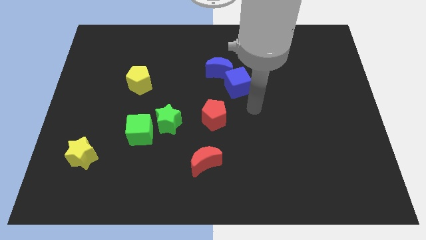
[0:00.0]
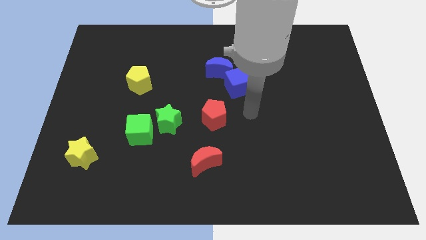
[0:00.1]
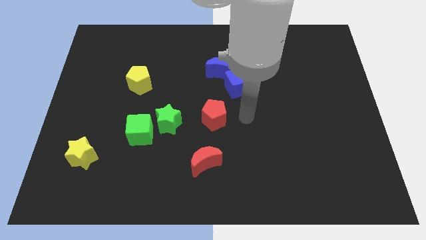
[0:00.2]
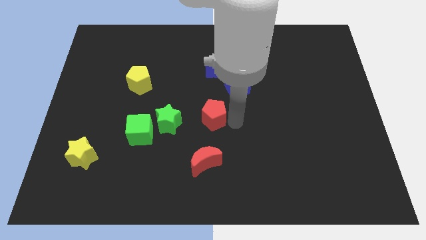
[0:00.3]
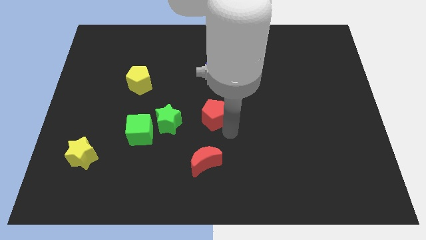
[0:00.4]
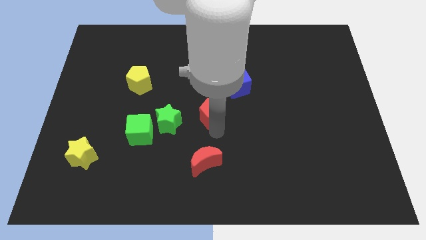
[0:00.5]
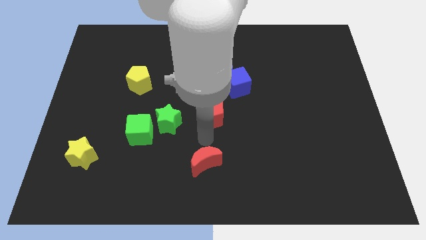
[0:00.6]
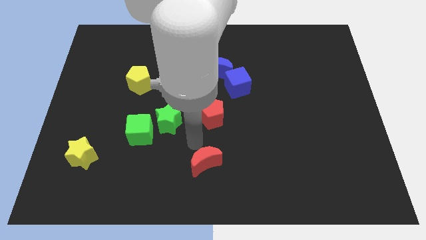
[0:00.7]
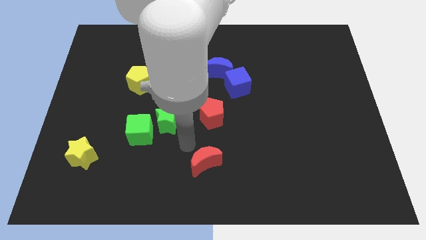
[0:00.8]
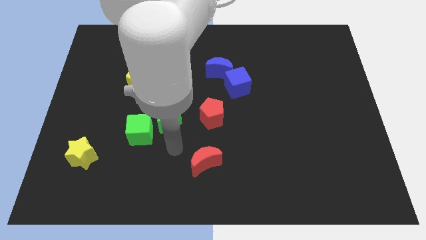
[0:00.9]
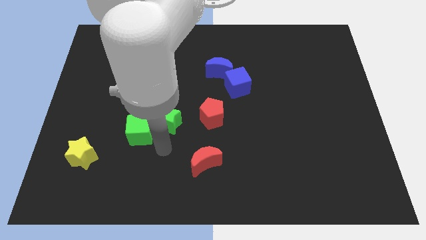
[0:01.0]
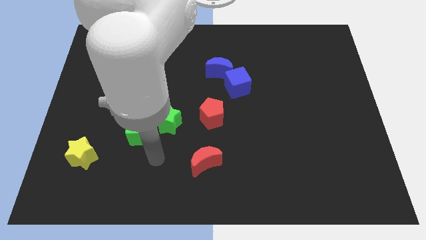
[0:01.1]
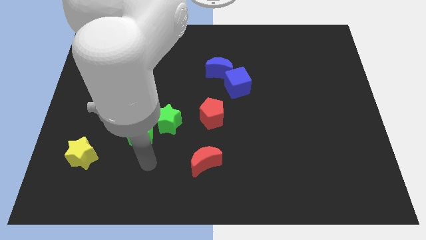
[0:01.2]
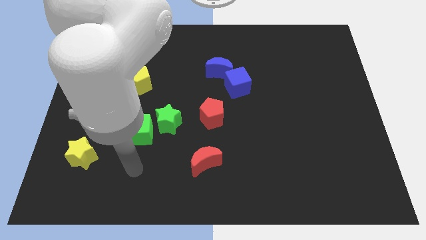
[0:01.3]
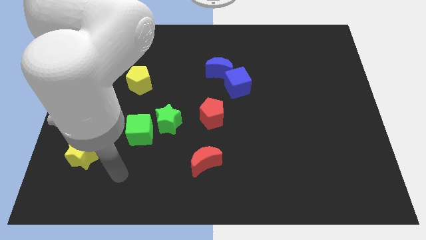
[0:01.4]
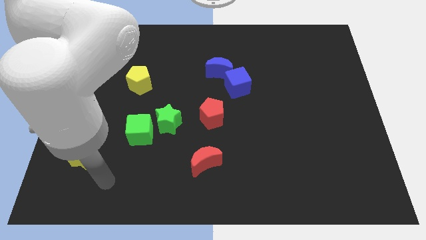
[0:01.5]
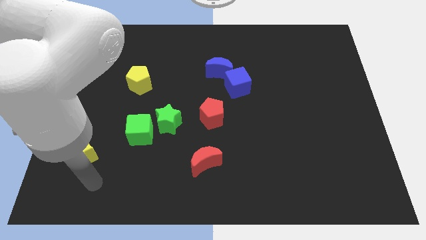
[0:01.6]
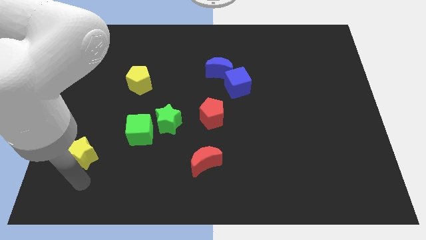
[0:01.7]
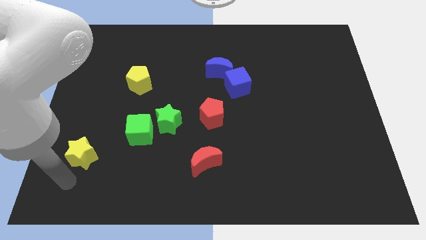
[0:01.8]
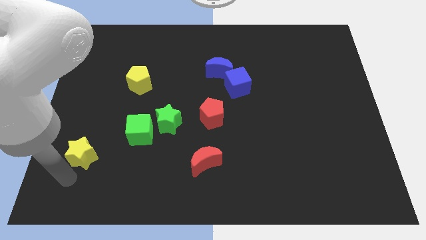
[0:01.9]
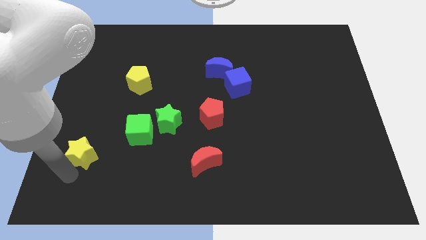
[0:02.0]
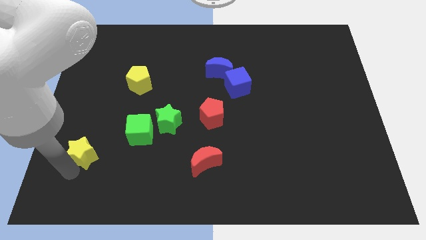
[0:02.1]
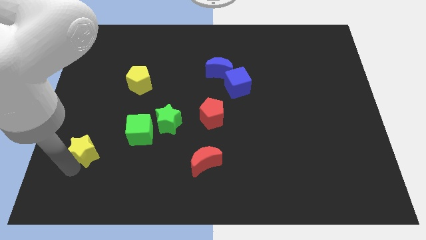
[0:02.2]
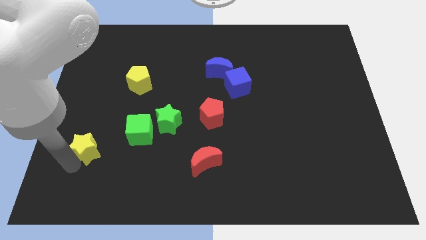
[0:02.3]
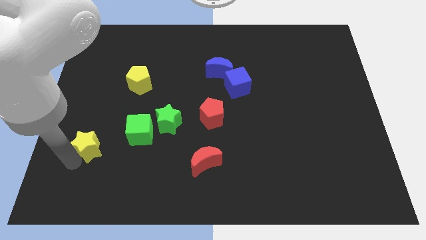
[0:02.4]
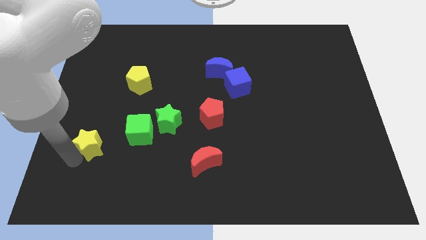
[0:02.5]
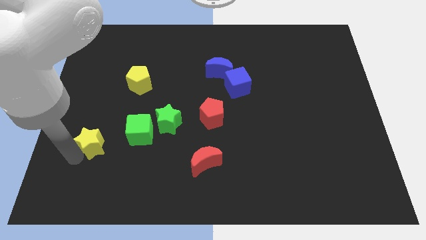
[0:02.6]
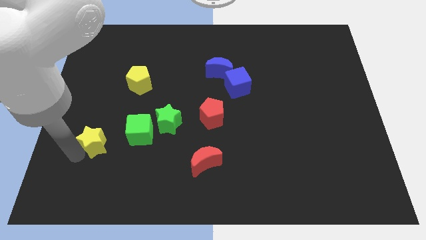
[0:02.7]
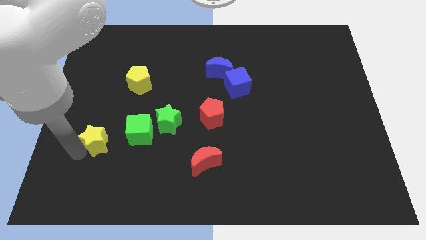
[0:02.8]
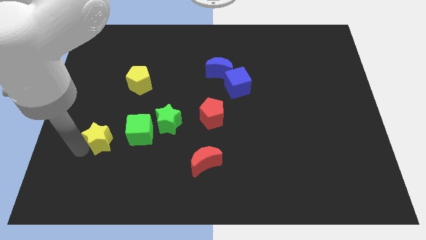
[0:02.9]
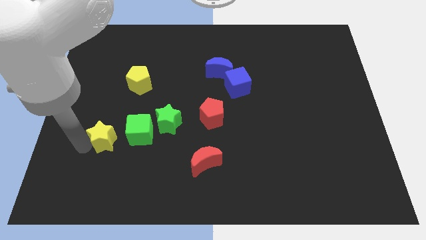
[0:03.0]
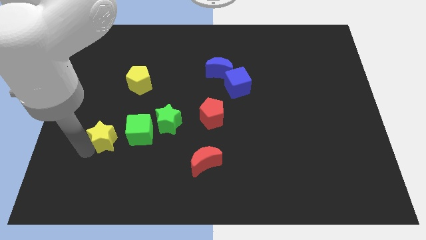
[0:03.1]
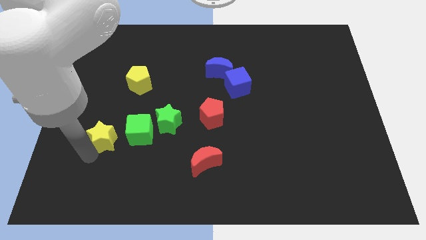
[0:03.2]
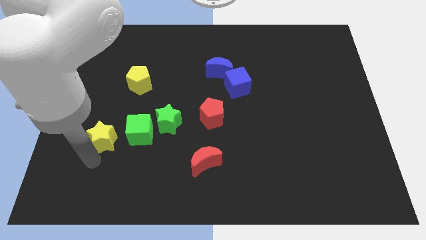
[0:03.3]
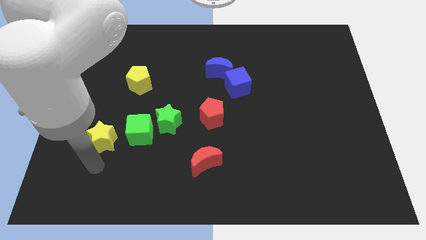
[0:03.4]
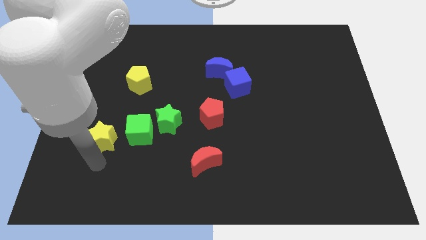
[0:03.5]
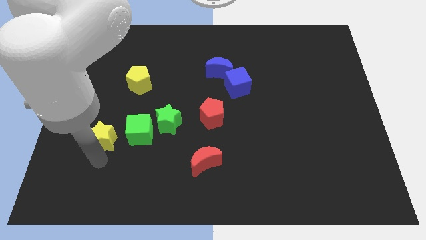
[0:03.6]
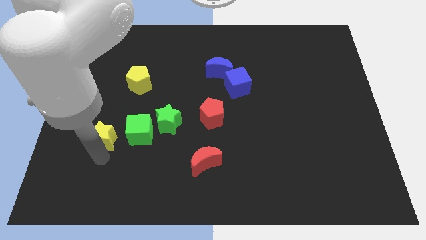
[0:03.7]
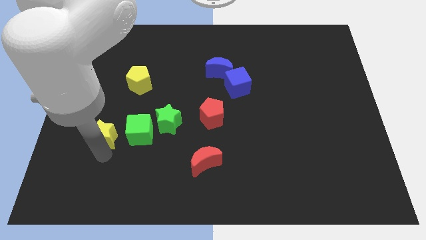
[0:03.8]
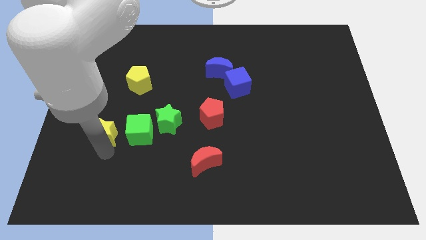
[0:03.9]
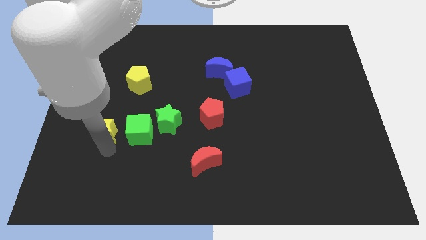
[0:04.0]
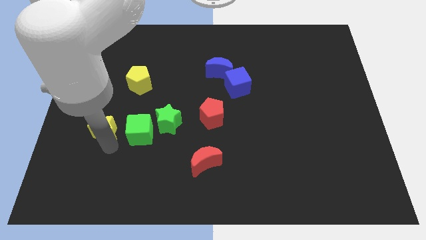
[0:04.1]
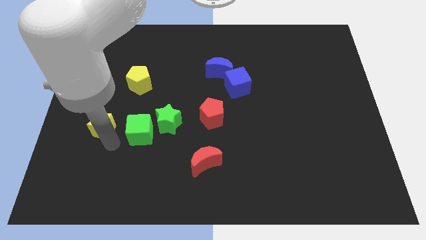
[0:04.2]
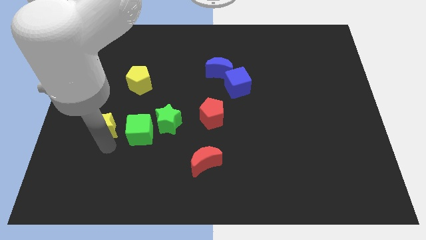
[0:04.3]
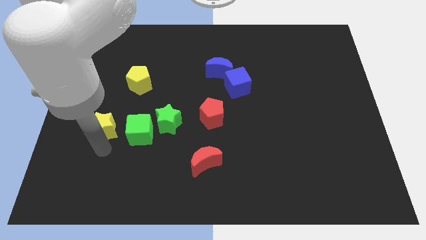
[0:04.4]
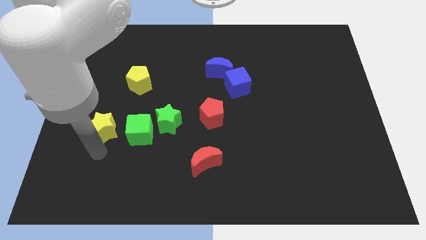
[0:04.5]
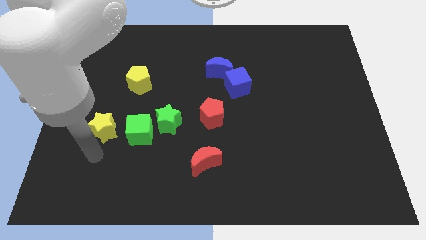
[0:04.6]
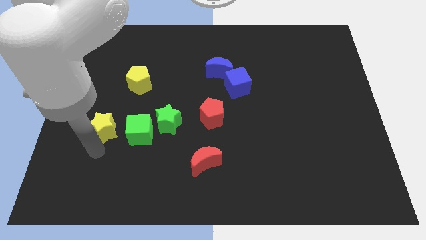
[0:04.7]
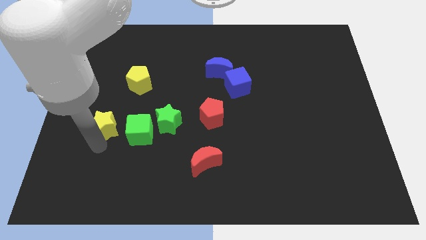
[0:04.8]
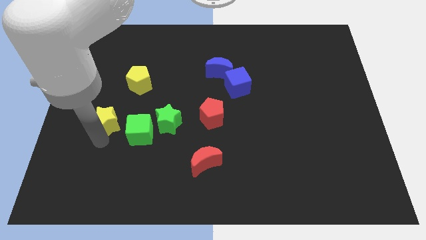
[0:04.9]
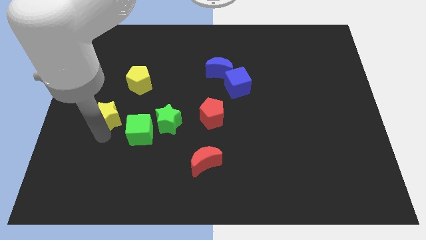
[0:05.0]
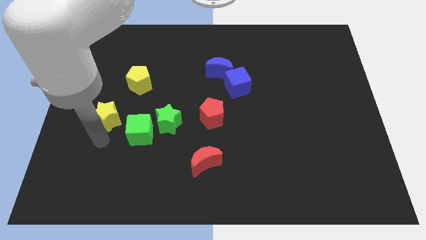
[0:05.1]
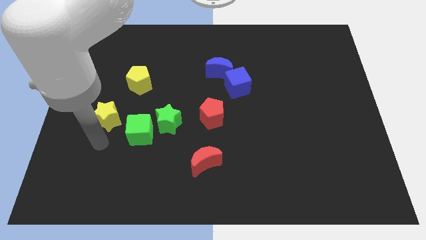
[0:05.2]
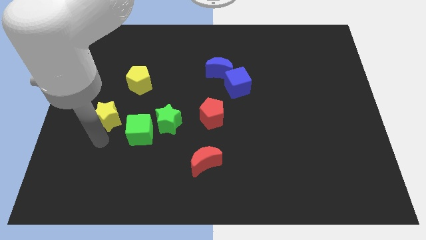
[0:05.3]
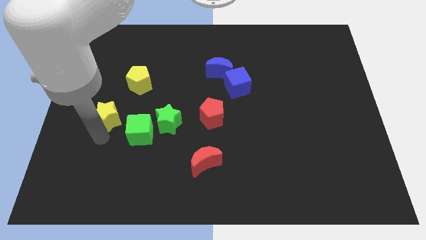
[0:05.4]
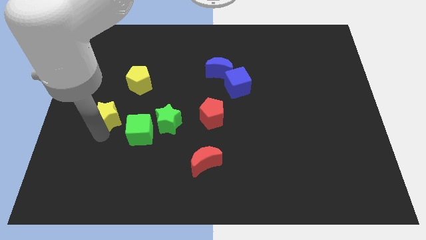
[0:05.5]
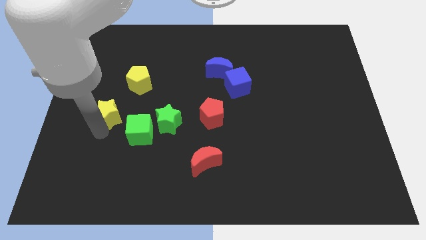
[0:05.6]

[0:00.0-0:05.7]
move the yellow star to the bottom left of the yellow pentagon

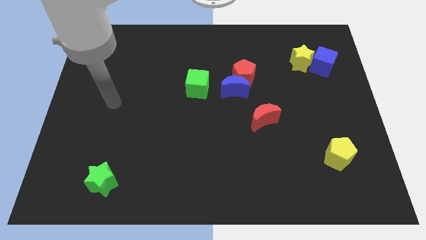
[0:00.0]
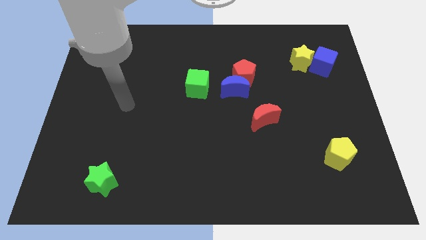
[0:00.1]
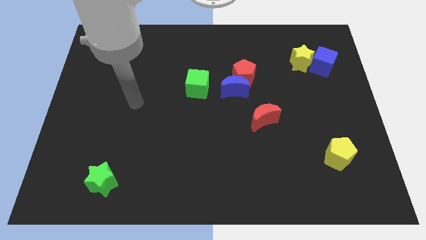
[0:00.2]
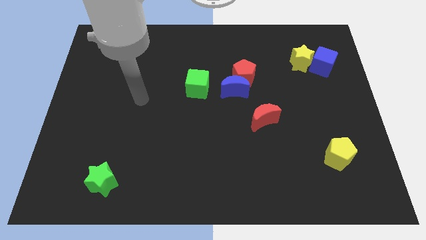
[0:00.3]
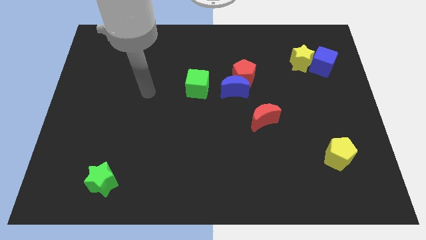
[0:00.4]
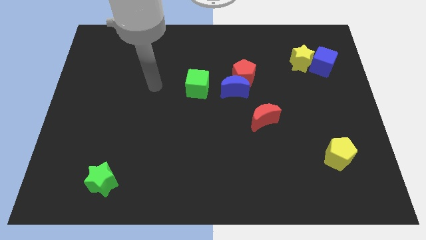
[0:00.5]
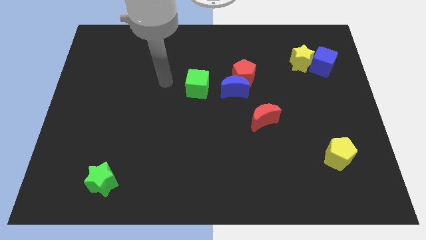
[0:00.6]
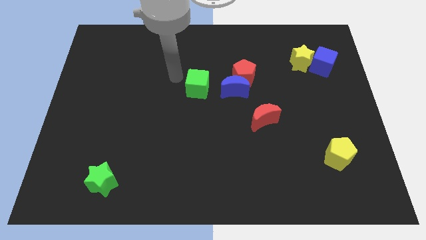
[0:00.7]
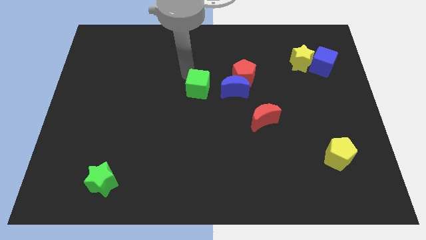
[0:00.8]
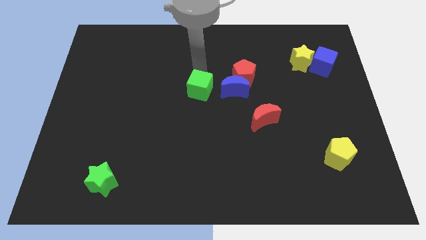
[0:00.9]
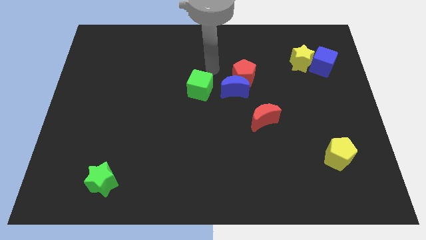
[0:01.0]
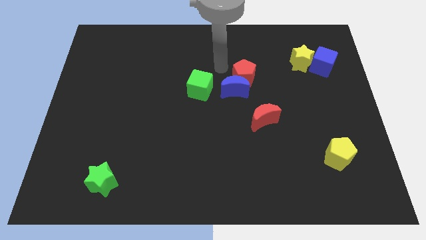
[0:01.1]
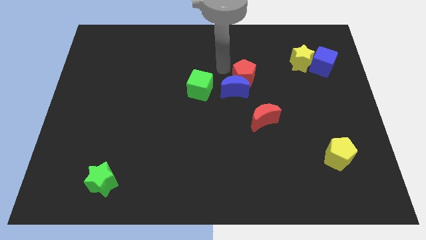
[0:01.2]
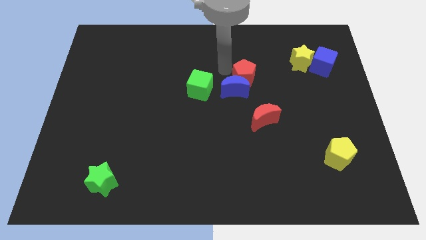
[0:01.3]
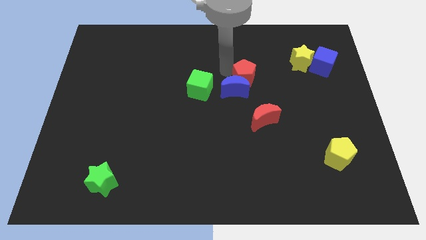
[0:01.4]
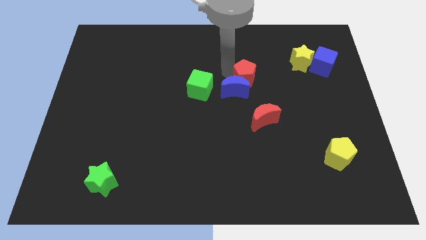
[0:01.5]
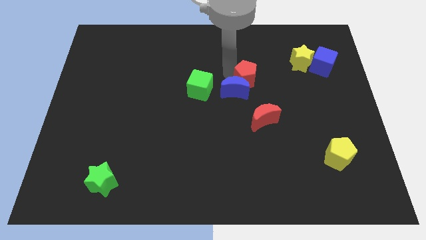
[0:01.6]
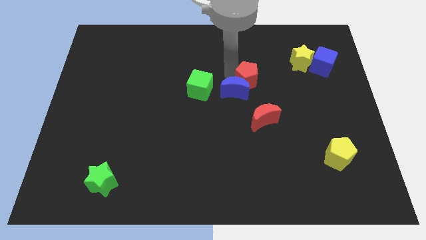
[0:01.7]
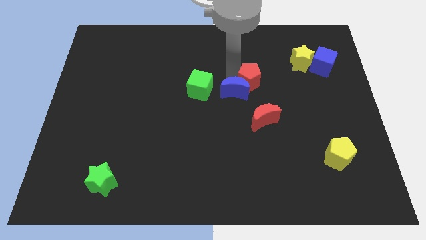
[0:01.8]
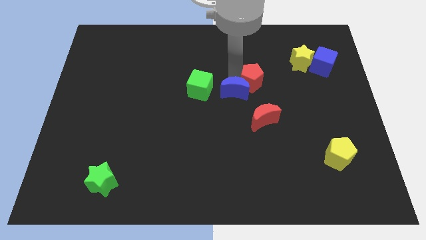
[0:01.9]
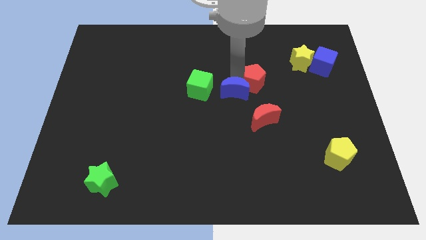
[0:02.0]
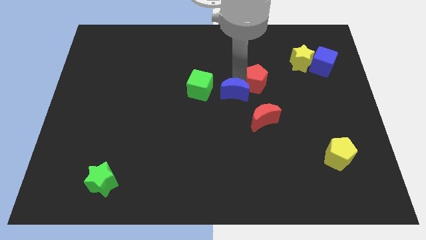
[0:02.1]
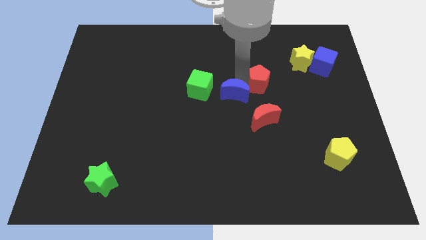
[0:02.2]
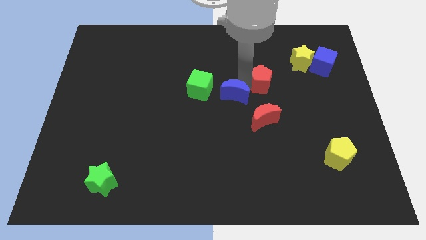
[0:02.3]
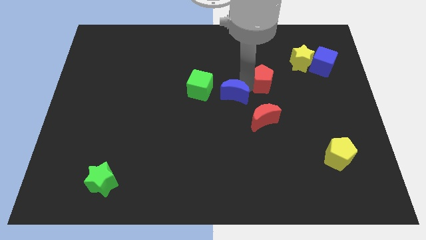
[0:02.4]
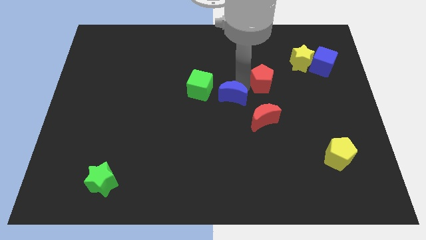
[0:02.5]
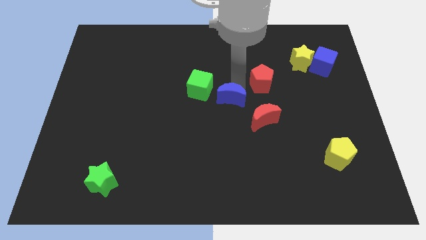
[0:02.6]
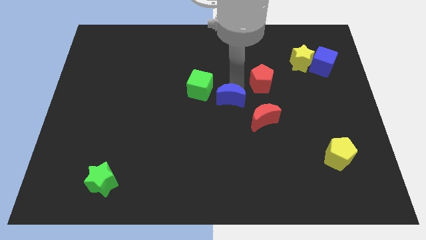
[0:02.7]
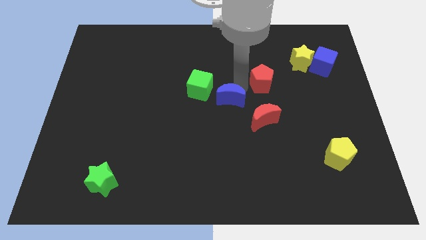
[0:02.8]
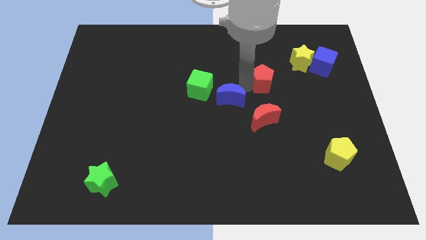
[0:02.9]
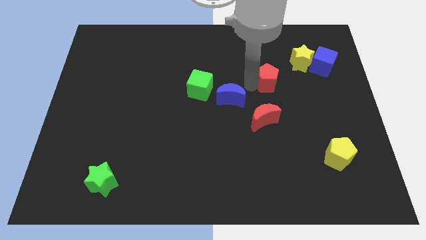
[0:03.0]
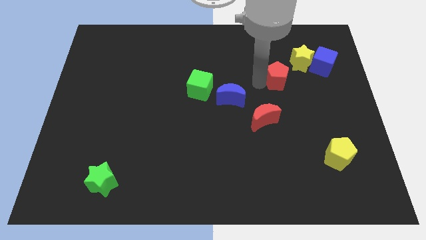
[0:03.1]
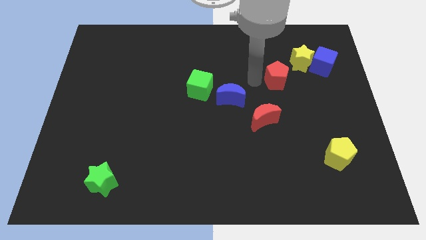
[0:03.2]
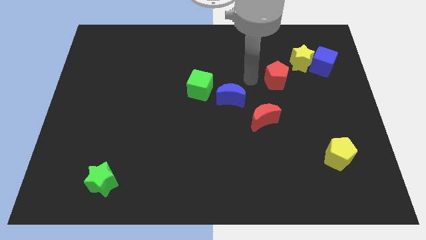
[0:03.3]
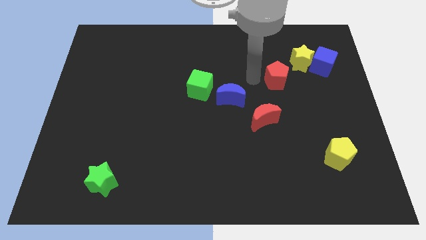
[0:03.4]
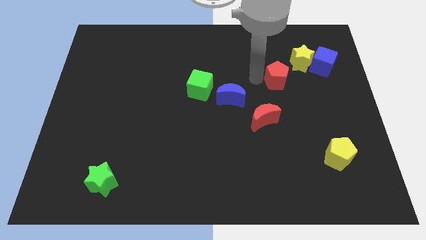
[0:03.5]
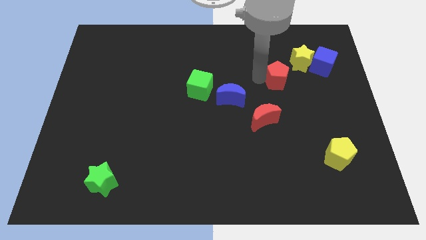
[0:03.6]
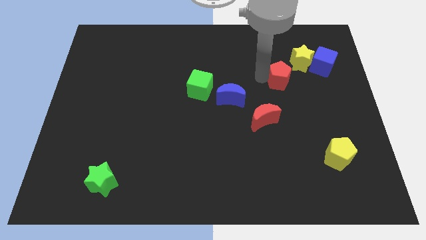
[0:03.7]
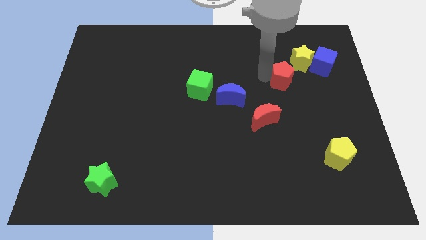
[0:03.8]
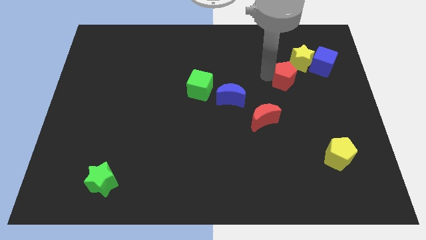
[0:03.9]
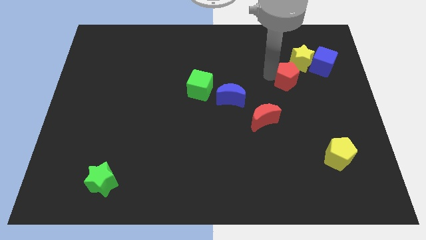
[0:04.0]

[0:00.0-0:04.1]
slide the red pentagon to the bottom left side of the blue cube
